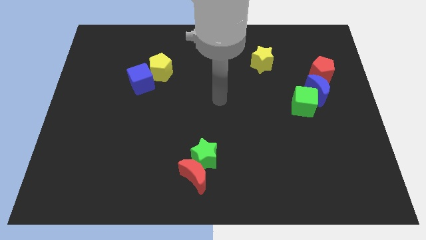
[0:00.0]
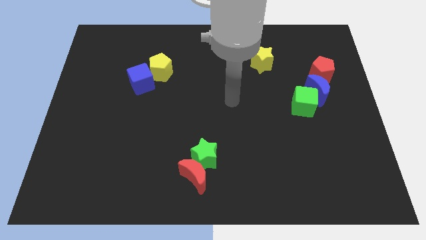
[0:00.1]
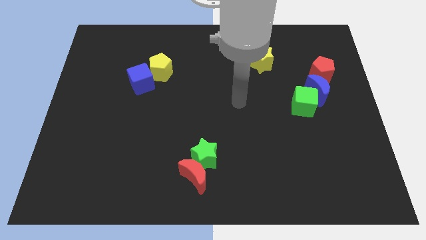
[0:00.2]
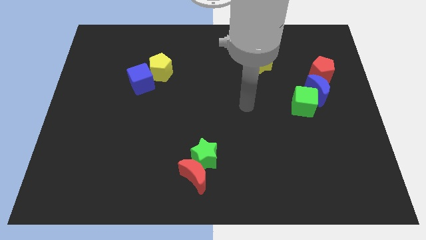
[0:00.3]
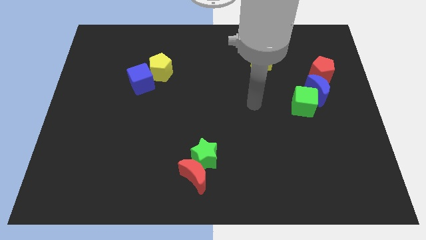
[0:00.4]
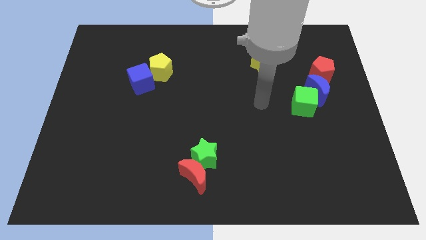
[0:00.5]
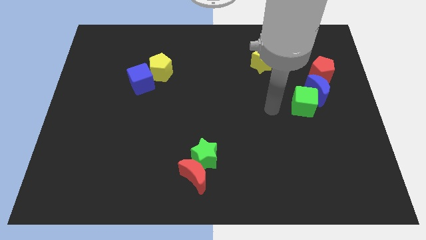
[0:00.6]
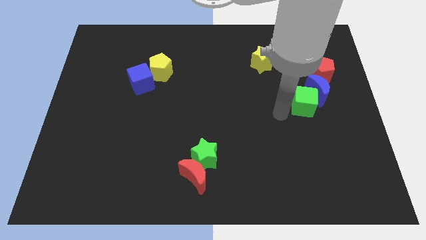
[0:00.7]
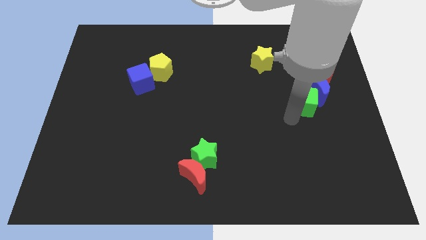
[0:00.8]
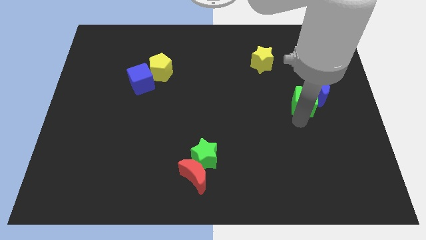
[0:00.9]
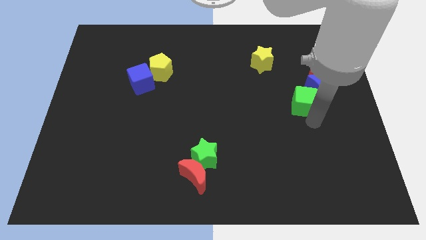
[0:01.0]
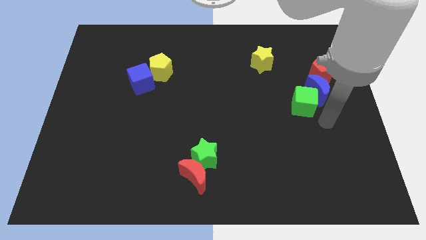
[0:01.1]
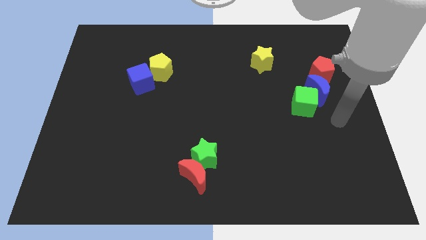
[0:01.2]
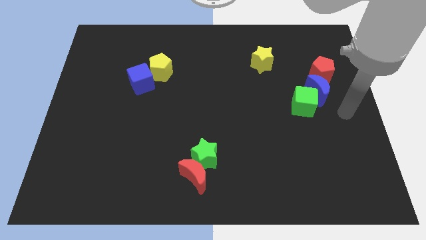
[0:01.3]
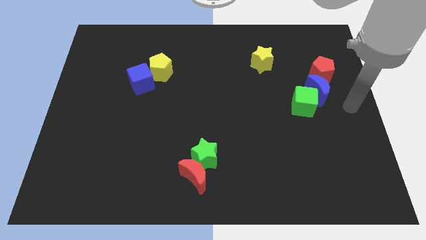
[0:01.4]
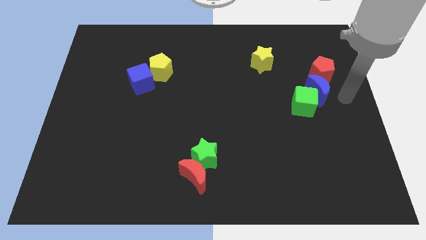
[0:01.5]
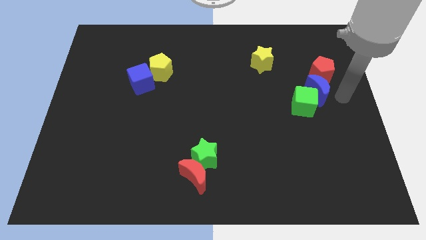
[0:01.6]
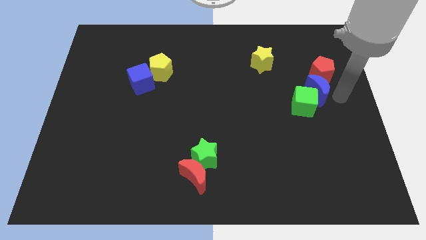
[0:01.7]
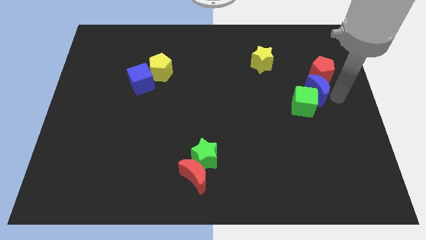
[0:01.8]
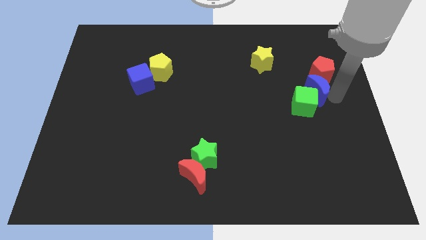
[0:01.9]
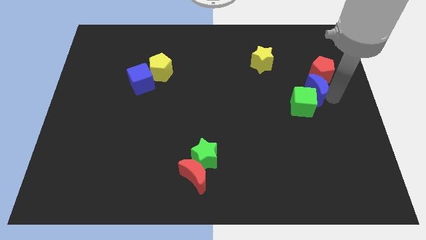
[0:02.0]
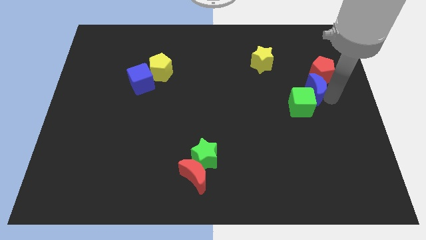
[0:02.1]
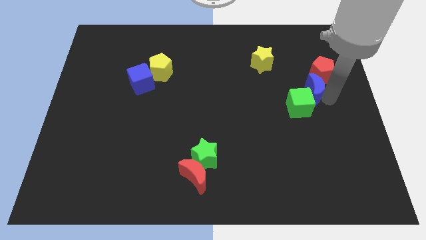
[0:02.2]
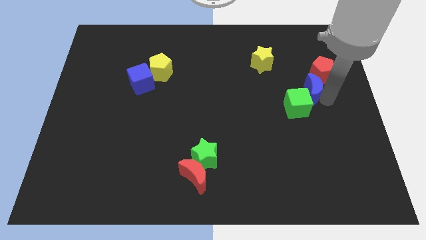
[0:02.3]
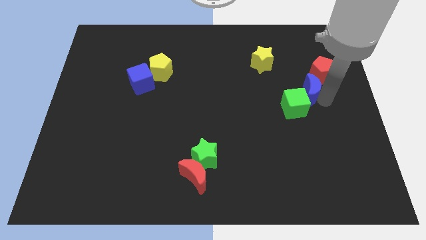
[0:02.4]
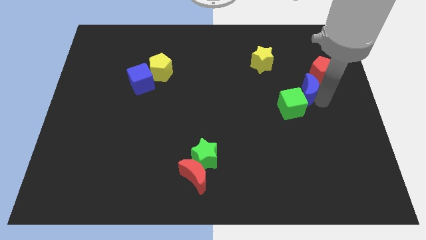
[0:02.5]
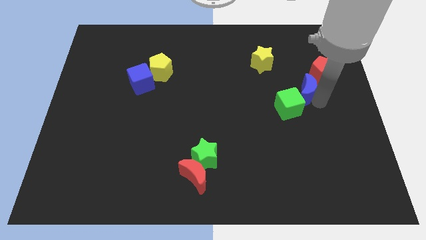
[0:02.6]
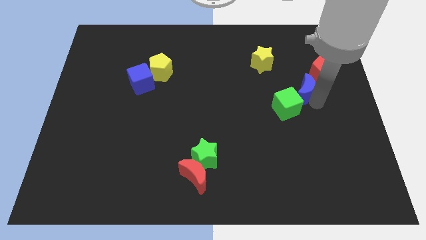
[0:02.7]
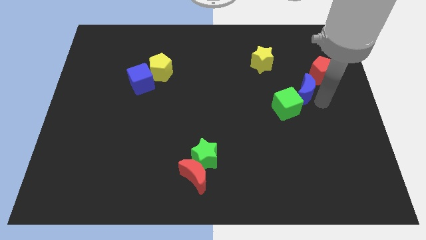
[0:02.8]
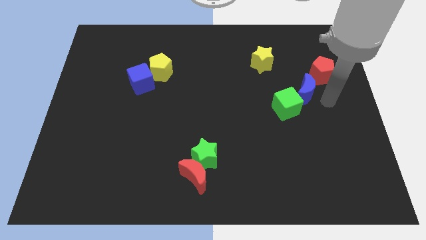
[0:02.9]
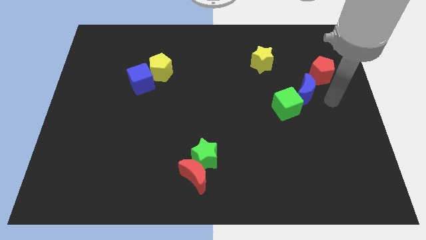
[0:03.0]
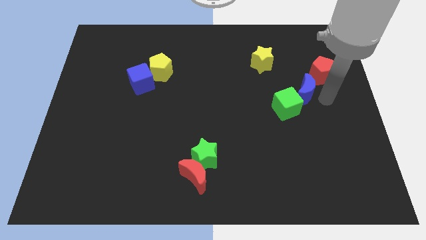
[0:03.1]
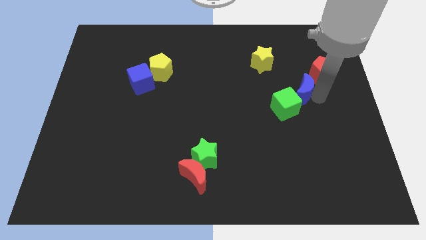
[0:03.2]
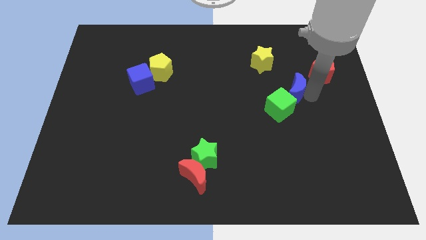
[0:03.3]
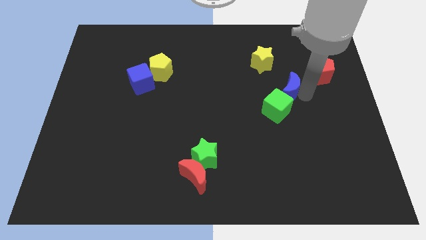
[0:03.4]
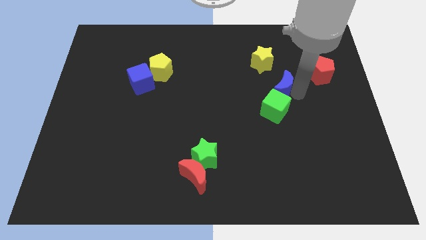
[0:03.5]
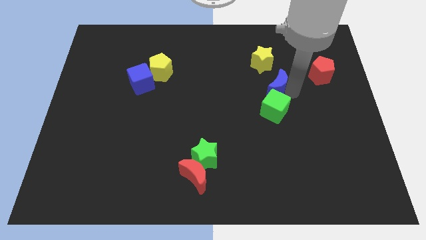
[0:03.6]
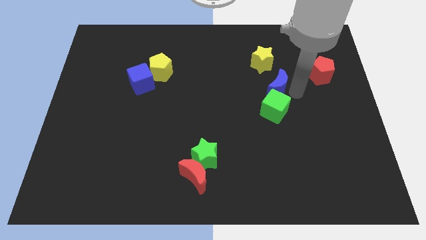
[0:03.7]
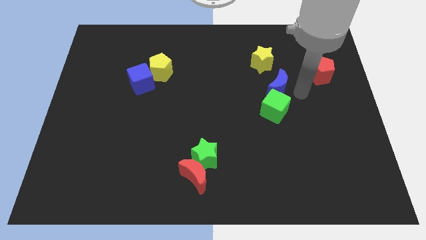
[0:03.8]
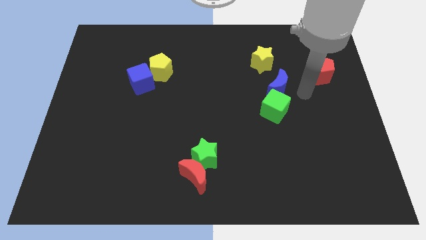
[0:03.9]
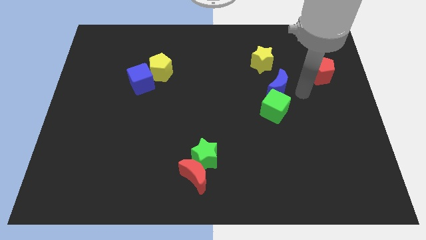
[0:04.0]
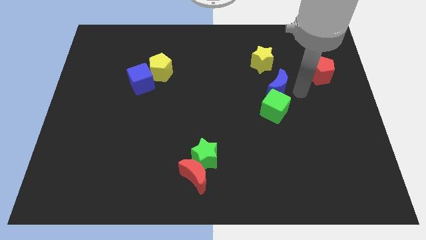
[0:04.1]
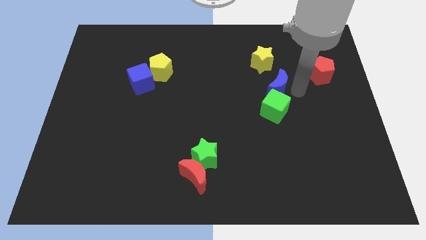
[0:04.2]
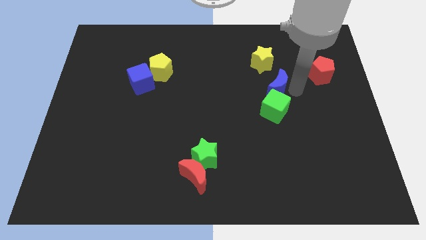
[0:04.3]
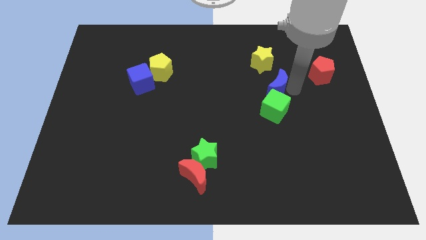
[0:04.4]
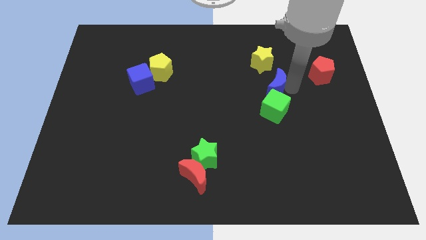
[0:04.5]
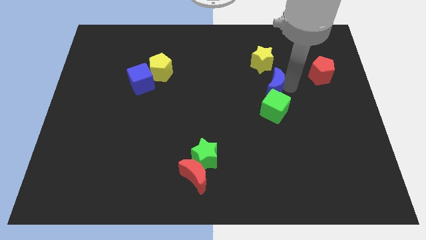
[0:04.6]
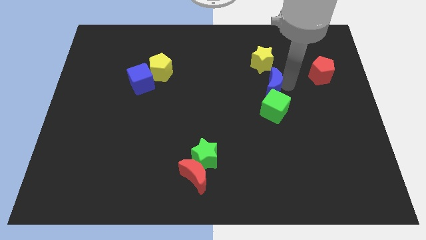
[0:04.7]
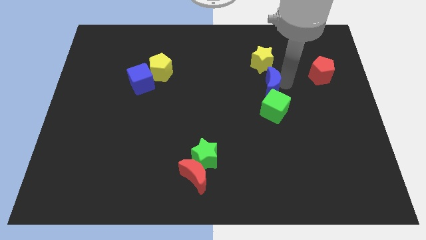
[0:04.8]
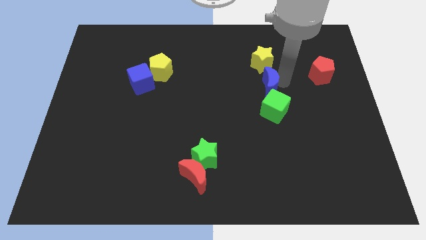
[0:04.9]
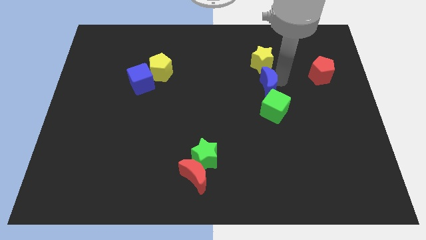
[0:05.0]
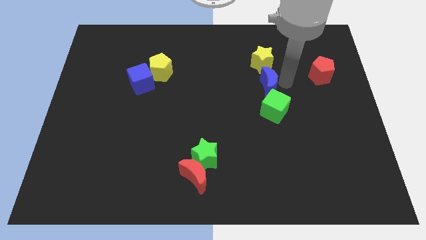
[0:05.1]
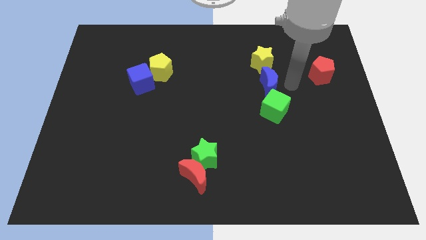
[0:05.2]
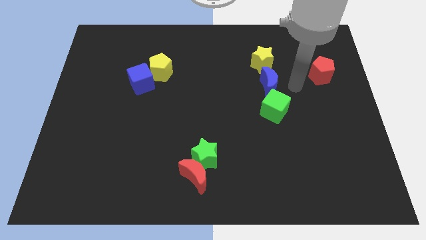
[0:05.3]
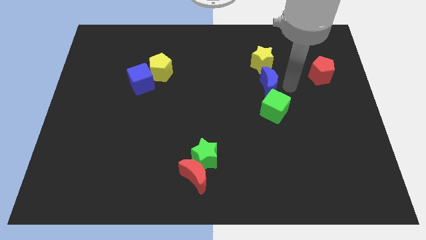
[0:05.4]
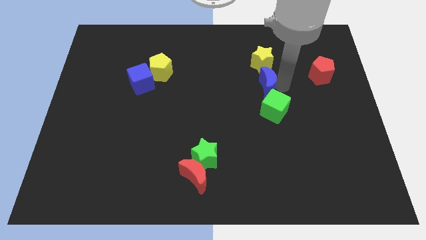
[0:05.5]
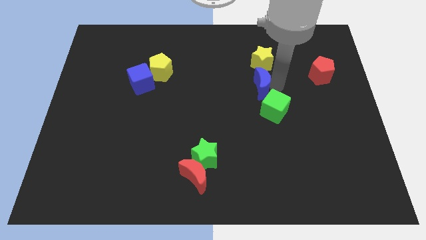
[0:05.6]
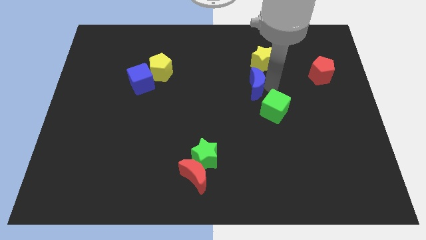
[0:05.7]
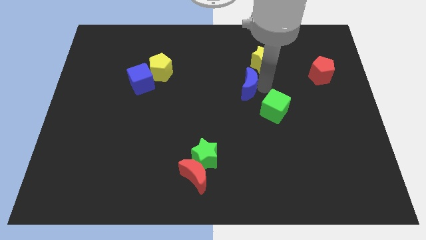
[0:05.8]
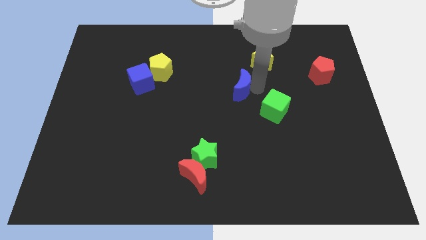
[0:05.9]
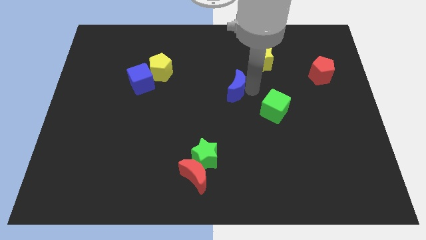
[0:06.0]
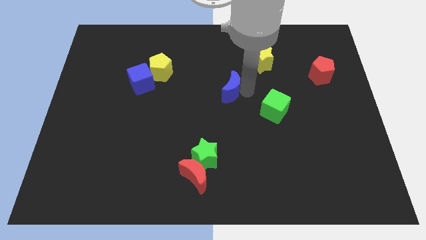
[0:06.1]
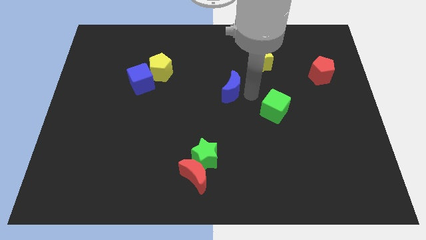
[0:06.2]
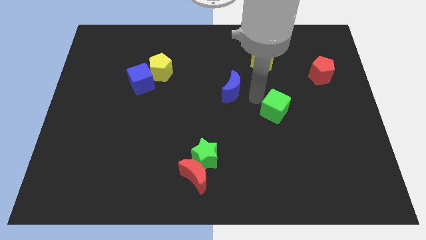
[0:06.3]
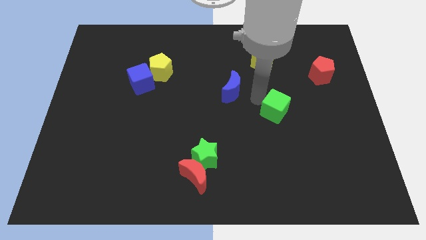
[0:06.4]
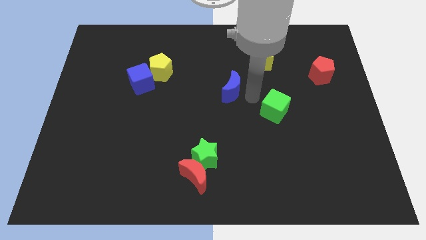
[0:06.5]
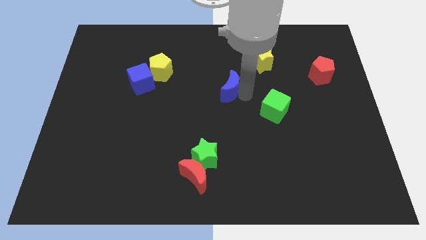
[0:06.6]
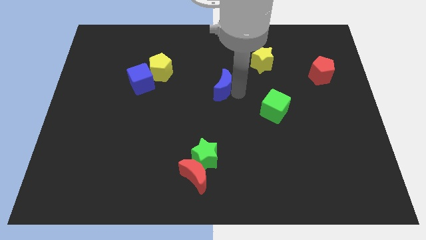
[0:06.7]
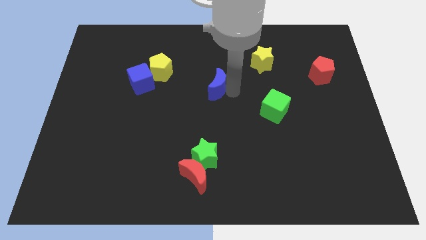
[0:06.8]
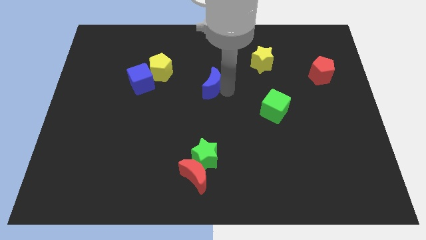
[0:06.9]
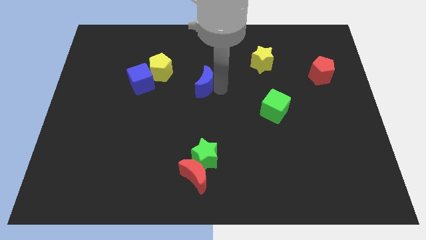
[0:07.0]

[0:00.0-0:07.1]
put the blue moon just right of the blue cube
